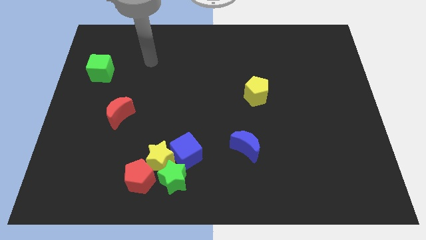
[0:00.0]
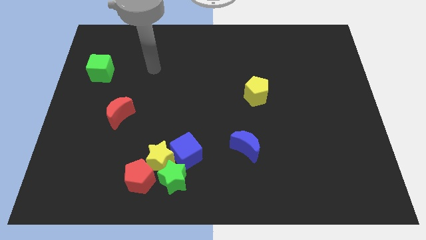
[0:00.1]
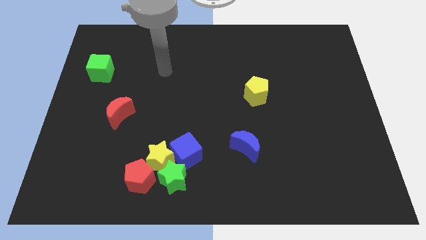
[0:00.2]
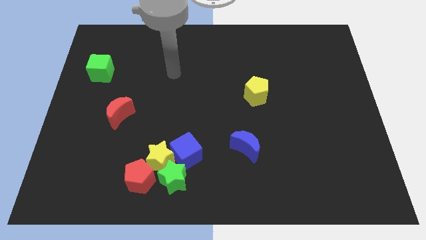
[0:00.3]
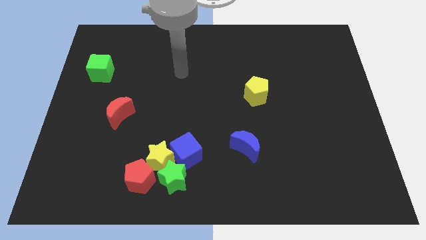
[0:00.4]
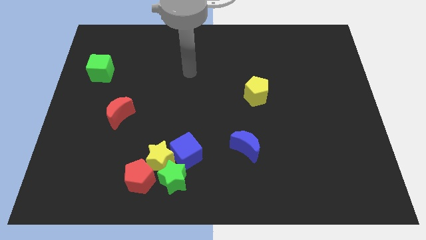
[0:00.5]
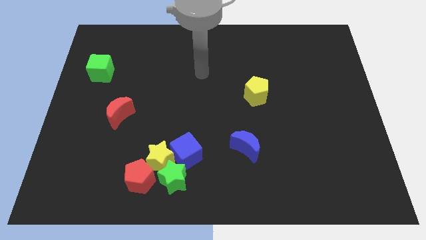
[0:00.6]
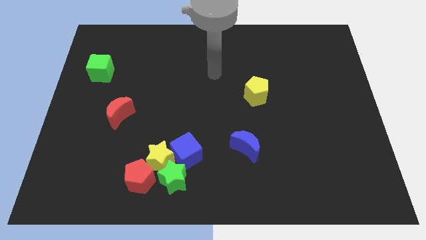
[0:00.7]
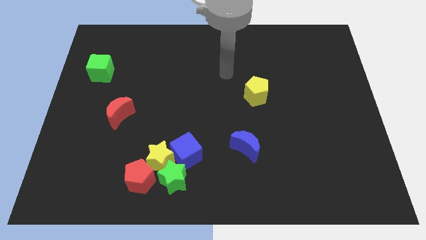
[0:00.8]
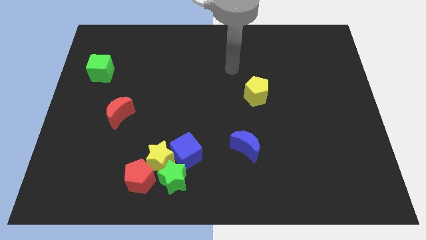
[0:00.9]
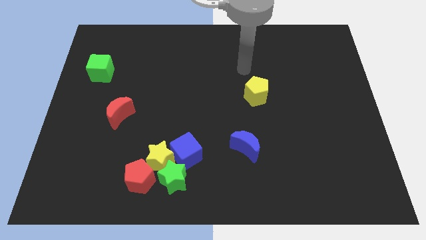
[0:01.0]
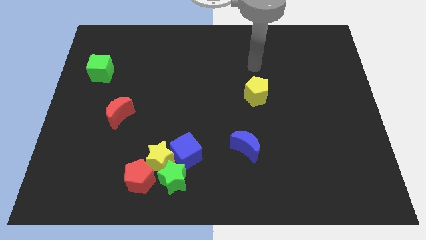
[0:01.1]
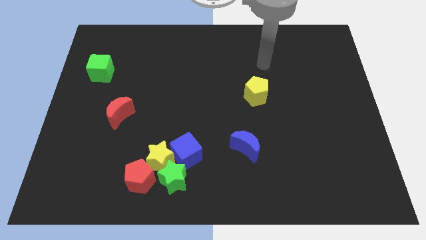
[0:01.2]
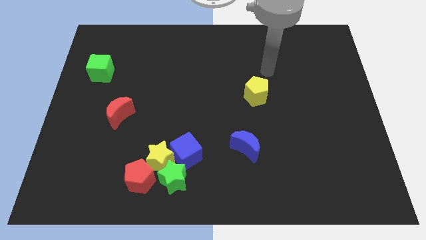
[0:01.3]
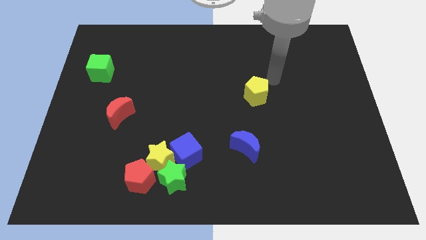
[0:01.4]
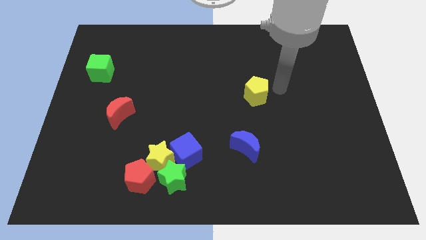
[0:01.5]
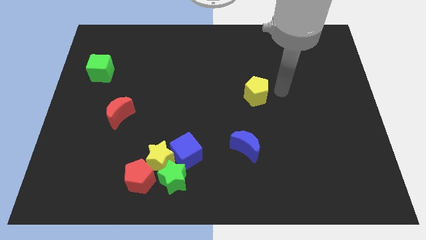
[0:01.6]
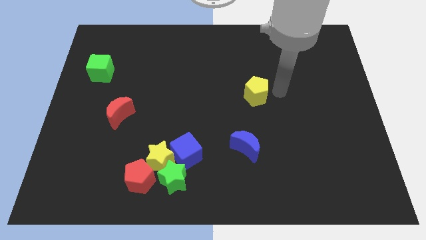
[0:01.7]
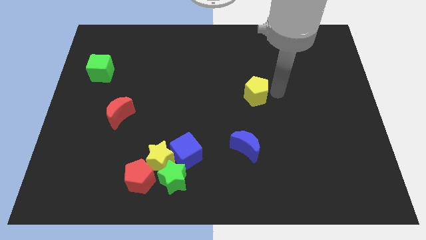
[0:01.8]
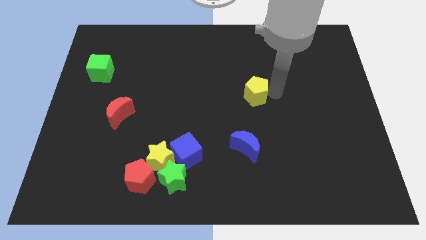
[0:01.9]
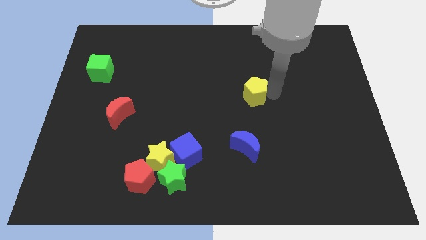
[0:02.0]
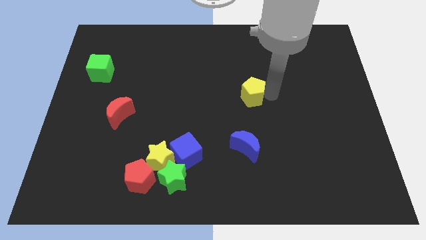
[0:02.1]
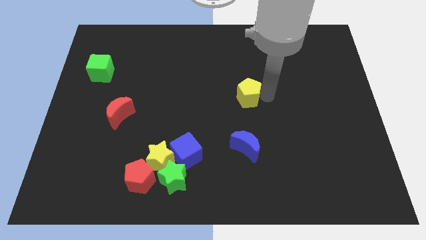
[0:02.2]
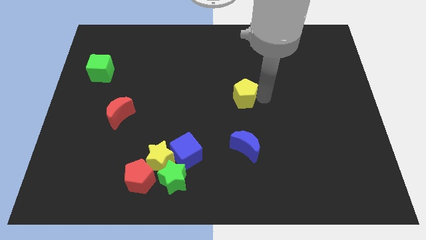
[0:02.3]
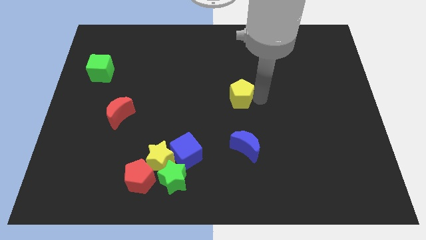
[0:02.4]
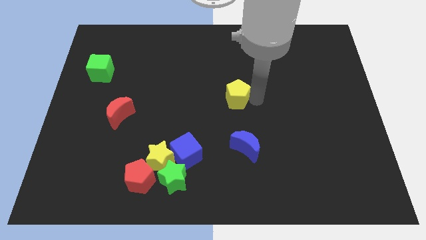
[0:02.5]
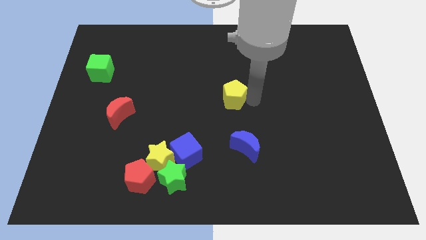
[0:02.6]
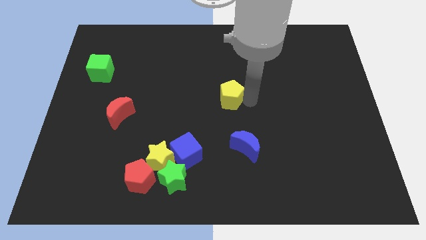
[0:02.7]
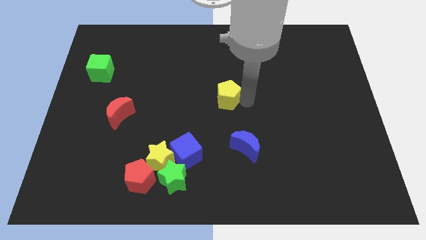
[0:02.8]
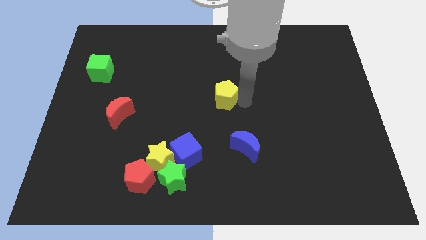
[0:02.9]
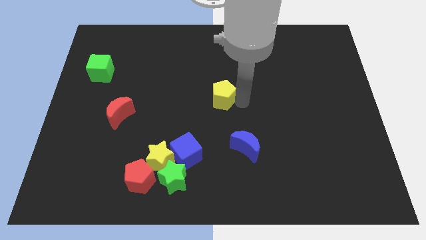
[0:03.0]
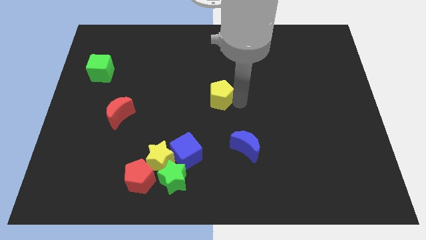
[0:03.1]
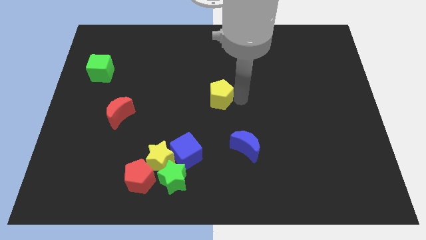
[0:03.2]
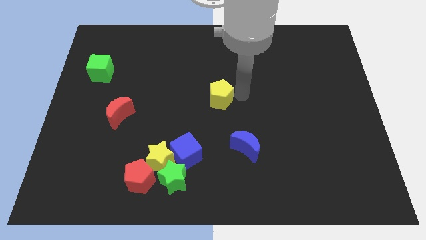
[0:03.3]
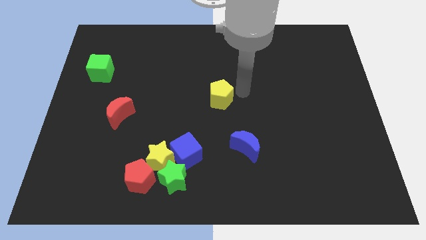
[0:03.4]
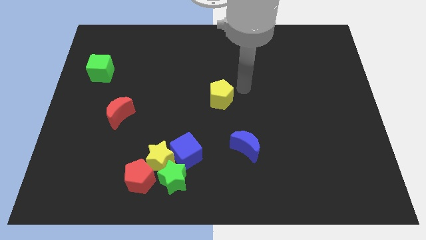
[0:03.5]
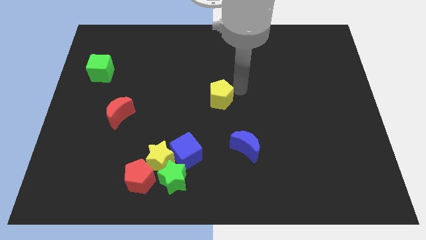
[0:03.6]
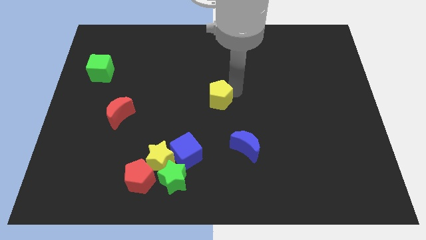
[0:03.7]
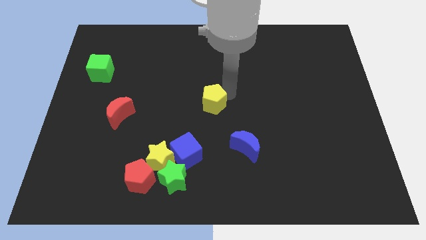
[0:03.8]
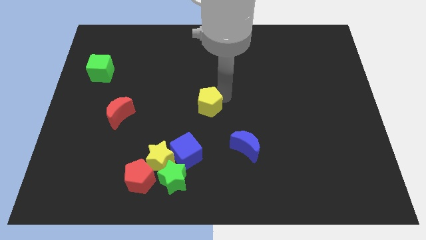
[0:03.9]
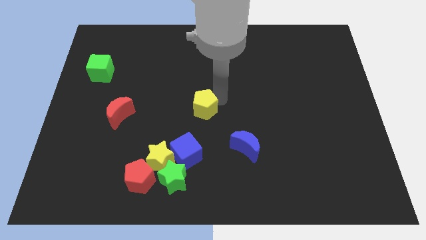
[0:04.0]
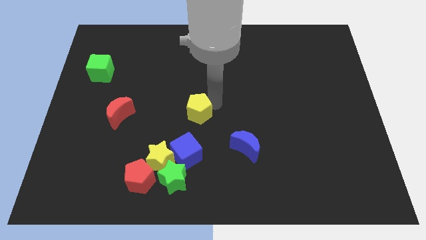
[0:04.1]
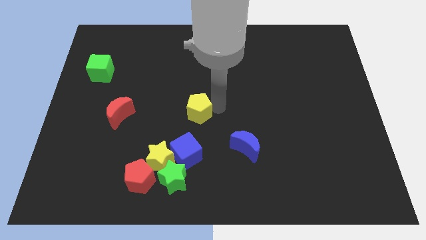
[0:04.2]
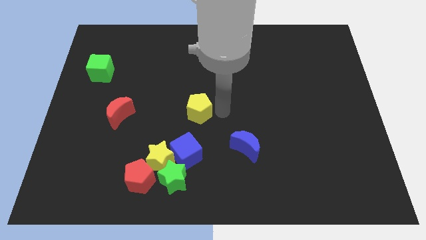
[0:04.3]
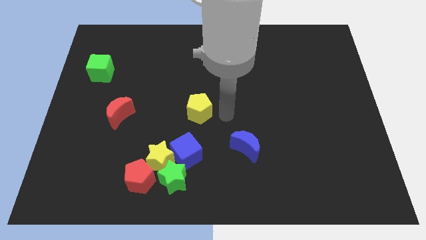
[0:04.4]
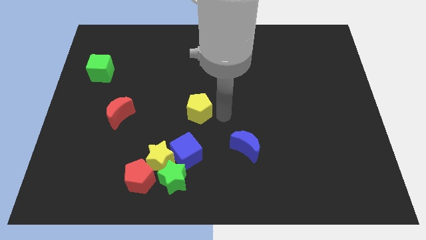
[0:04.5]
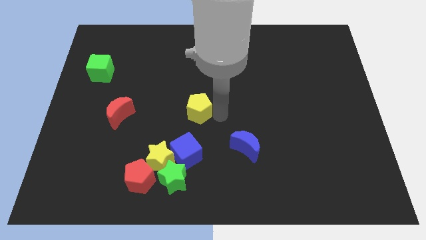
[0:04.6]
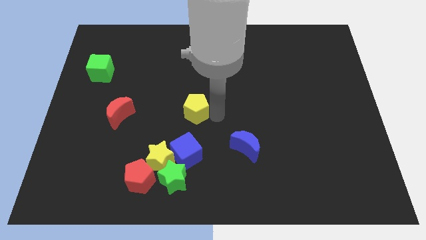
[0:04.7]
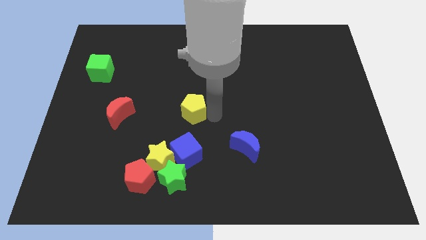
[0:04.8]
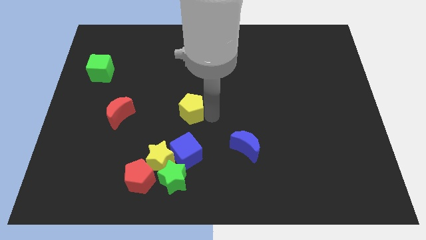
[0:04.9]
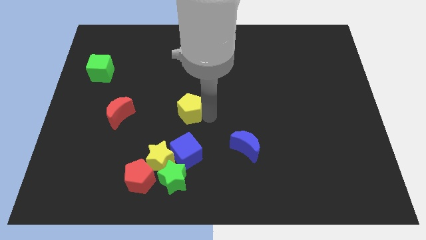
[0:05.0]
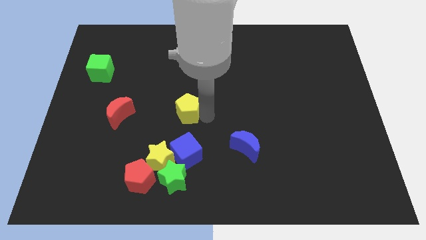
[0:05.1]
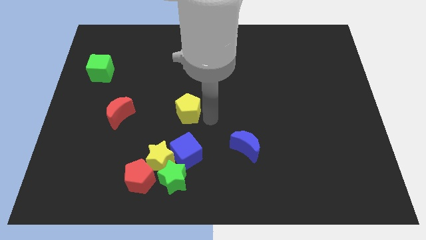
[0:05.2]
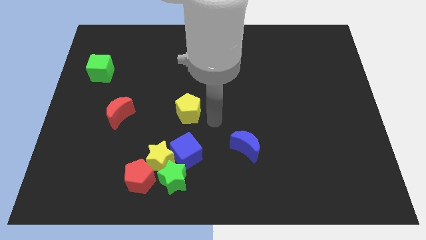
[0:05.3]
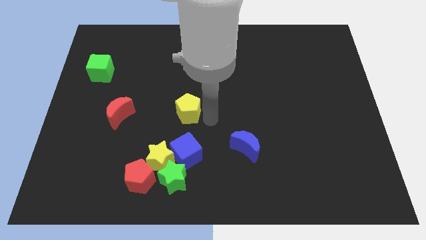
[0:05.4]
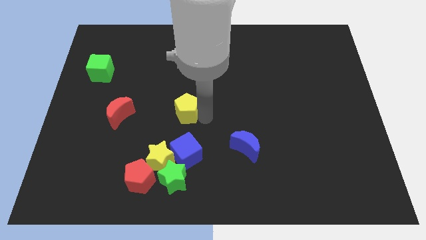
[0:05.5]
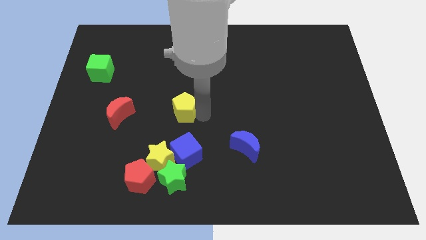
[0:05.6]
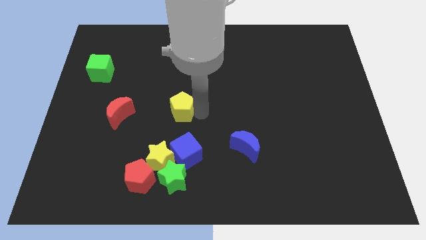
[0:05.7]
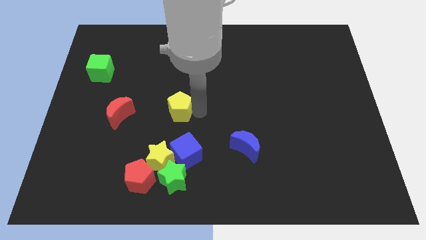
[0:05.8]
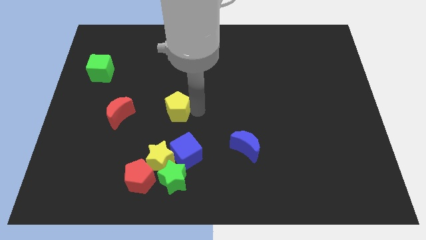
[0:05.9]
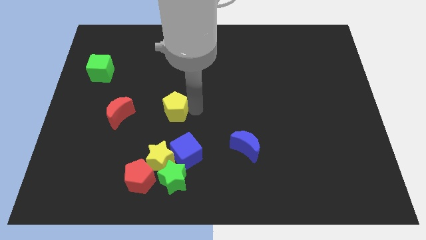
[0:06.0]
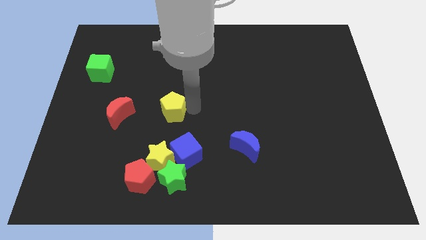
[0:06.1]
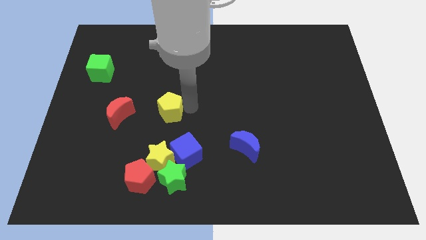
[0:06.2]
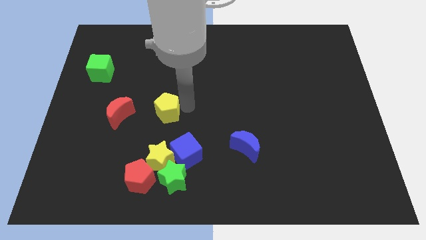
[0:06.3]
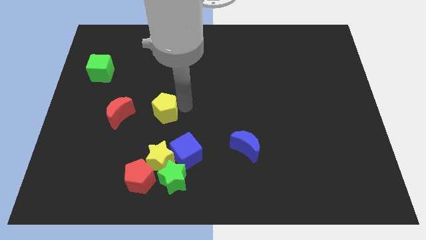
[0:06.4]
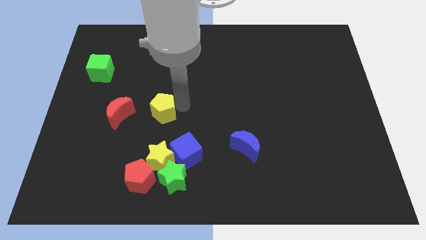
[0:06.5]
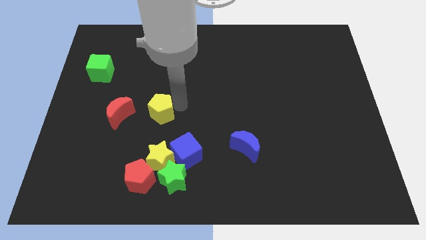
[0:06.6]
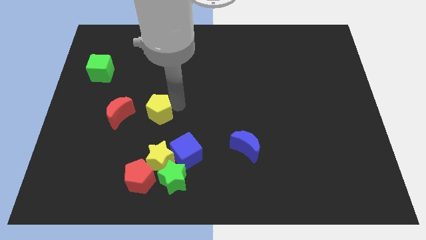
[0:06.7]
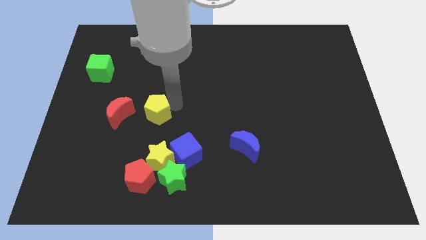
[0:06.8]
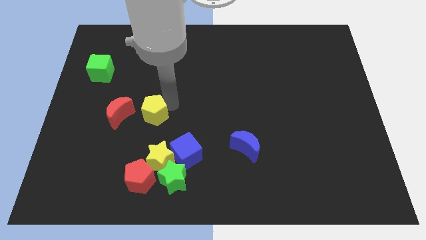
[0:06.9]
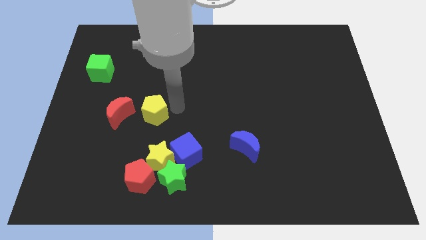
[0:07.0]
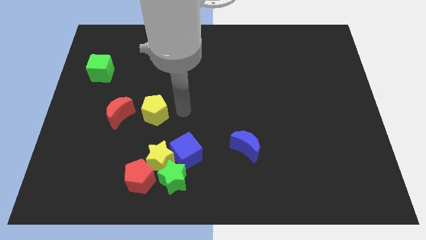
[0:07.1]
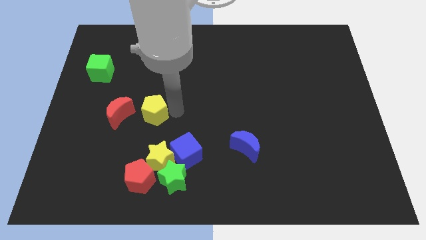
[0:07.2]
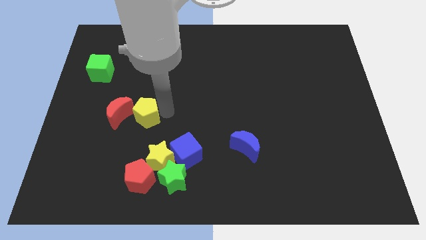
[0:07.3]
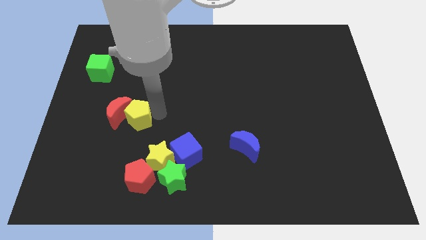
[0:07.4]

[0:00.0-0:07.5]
push the yellow pentagon towards the red moon
